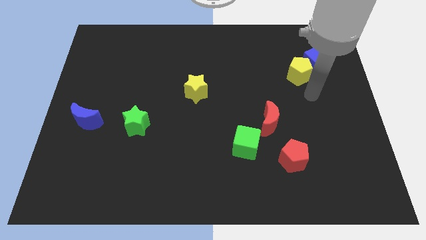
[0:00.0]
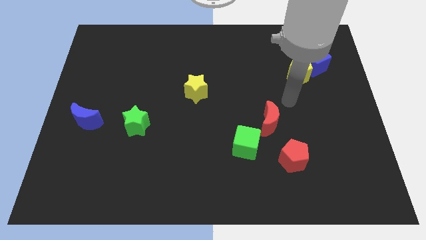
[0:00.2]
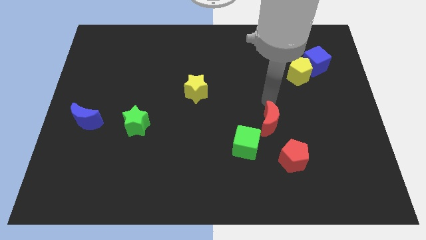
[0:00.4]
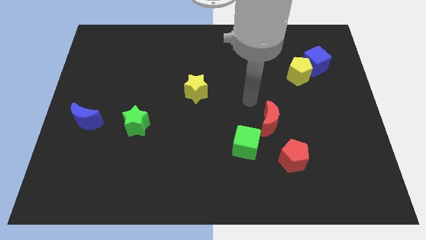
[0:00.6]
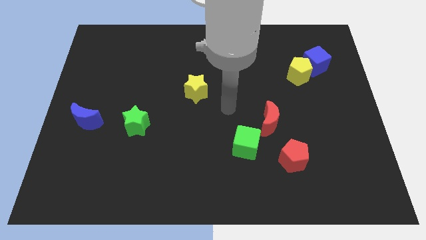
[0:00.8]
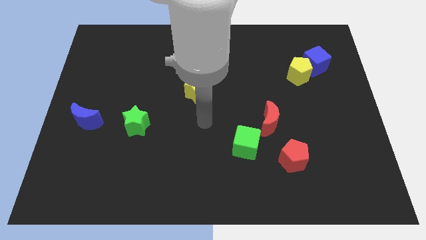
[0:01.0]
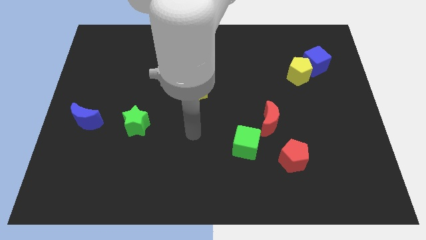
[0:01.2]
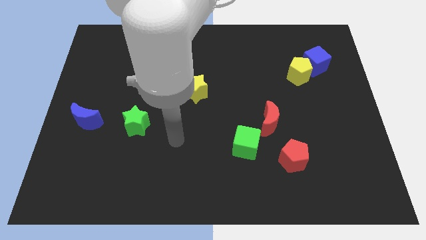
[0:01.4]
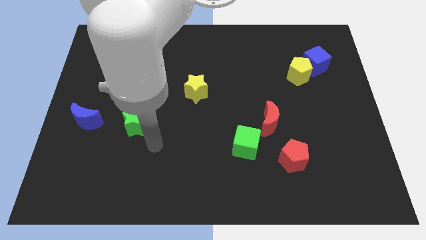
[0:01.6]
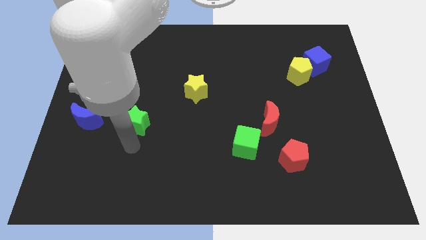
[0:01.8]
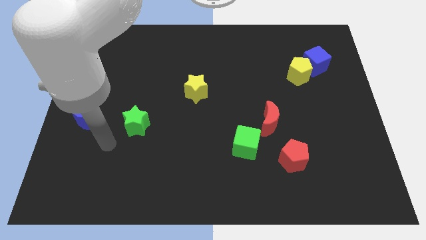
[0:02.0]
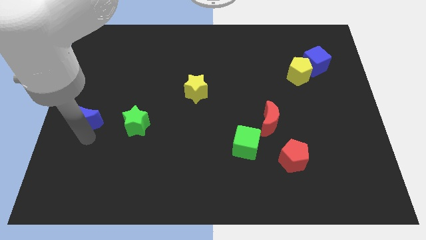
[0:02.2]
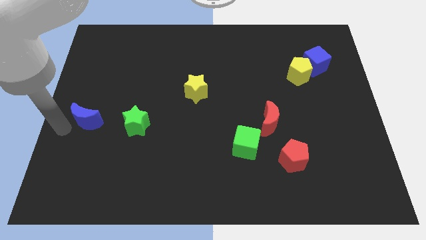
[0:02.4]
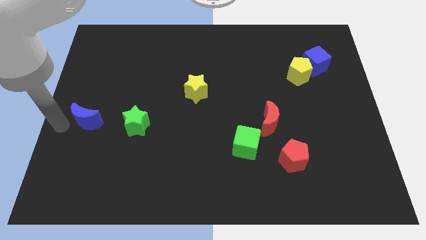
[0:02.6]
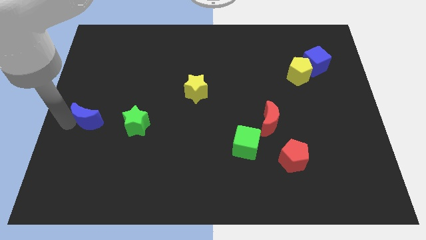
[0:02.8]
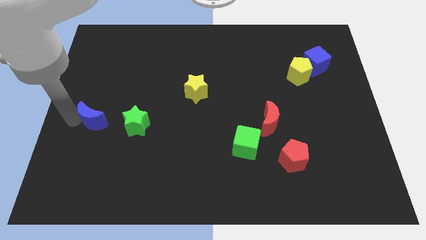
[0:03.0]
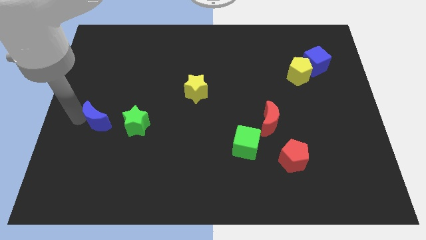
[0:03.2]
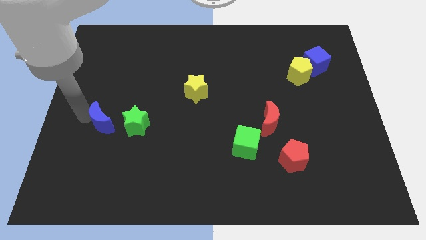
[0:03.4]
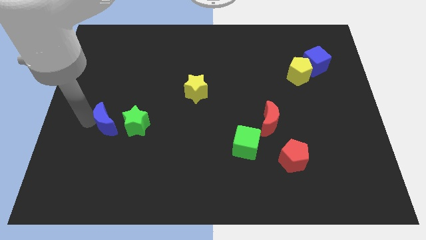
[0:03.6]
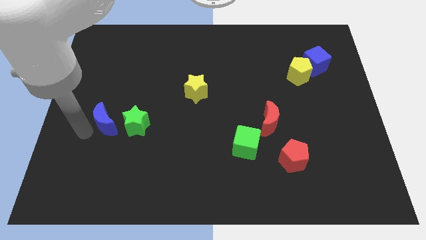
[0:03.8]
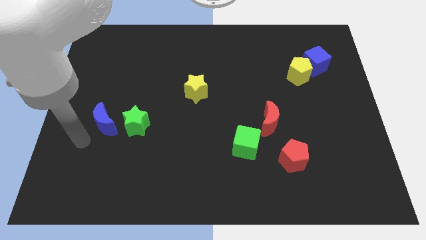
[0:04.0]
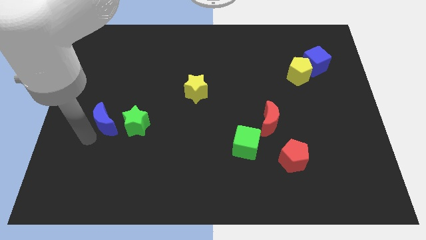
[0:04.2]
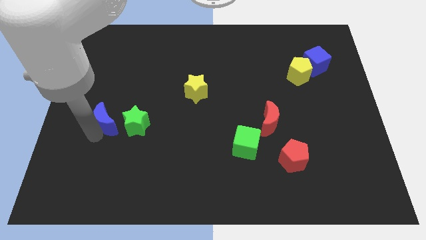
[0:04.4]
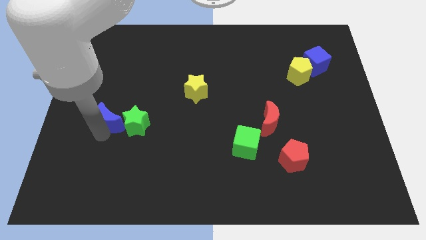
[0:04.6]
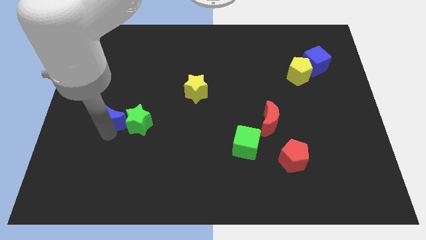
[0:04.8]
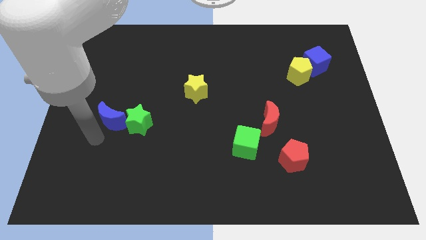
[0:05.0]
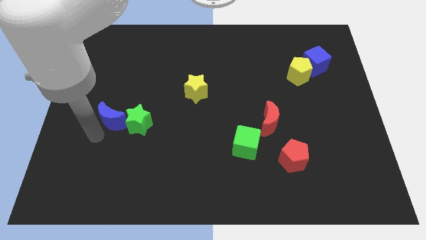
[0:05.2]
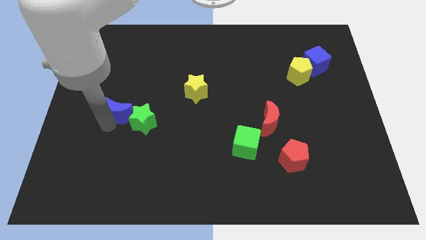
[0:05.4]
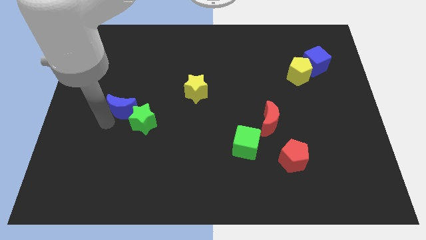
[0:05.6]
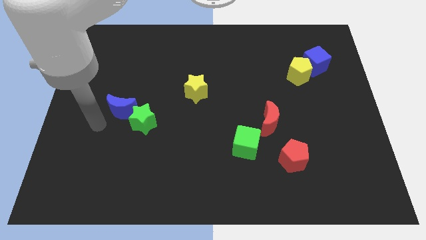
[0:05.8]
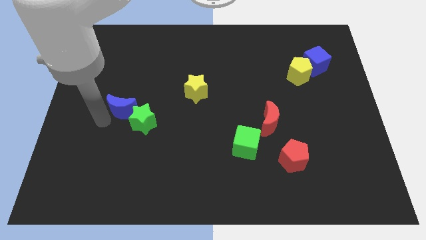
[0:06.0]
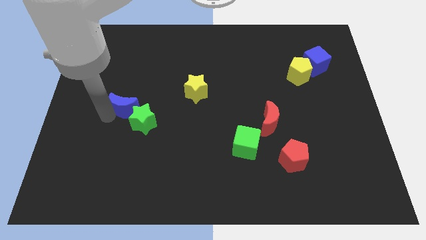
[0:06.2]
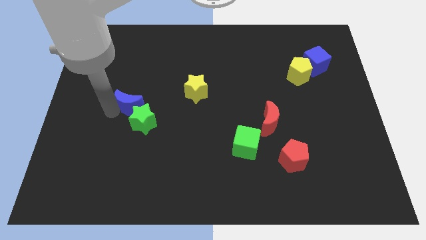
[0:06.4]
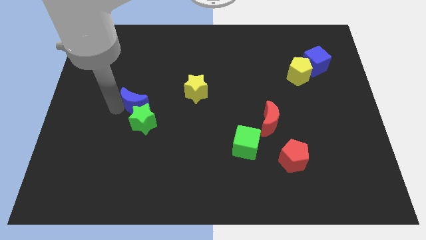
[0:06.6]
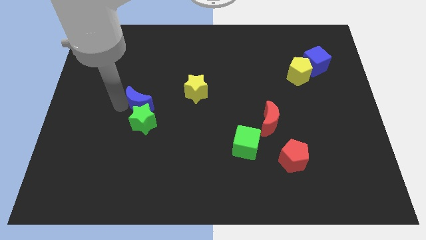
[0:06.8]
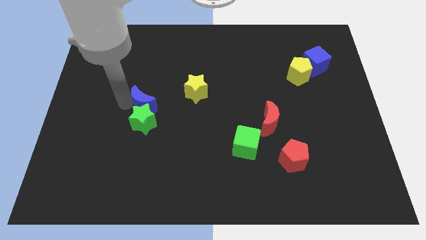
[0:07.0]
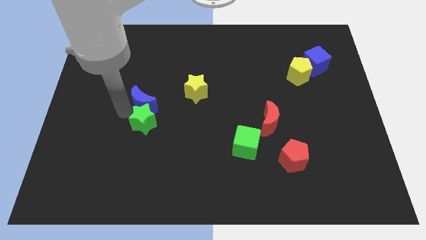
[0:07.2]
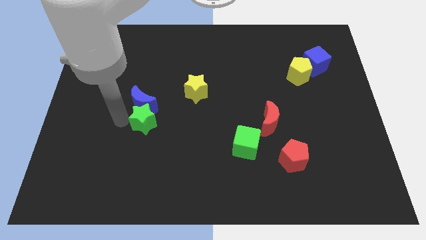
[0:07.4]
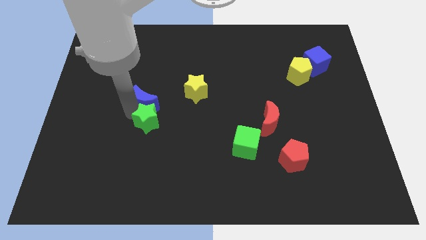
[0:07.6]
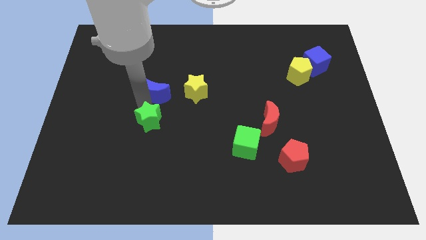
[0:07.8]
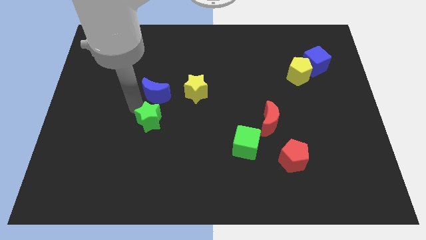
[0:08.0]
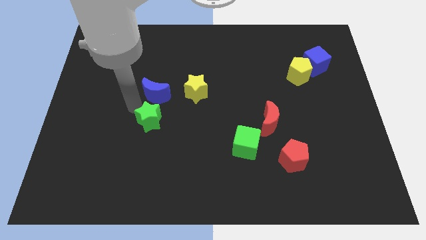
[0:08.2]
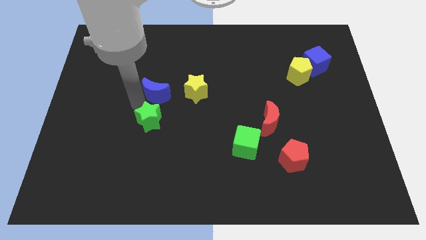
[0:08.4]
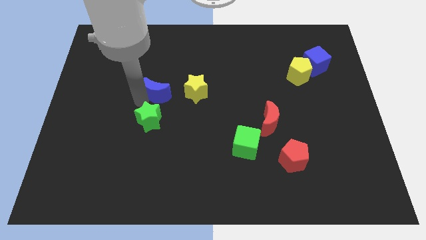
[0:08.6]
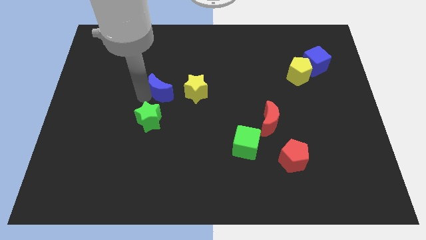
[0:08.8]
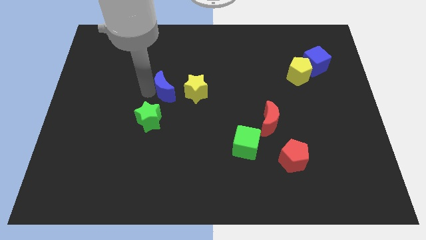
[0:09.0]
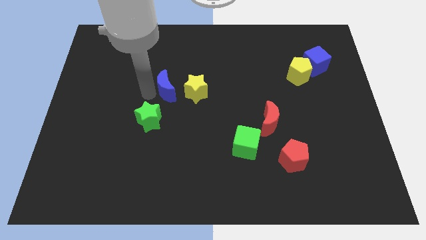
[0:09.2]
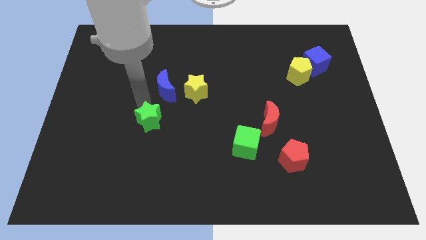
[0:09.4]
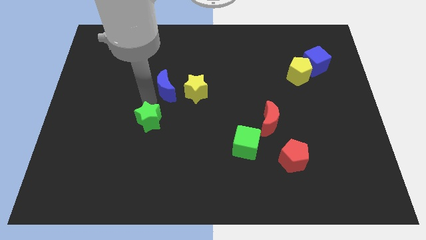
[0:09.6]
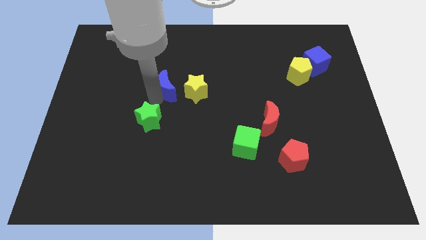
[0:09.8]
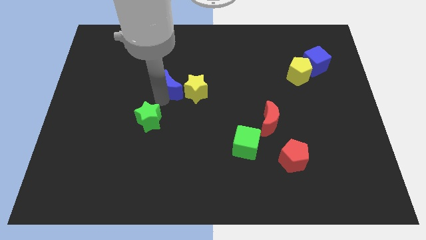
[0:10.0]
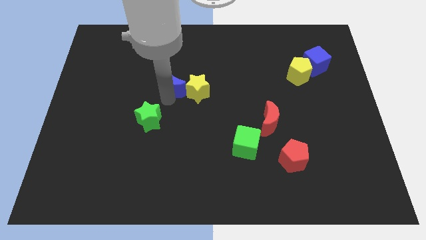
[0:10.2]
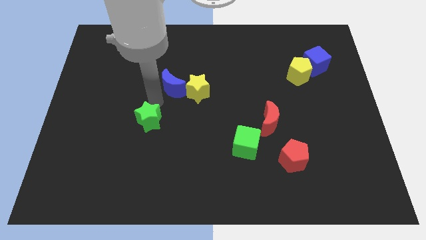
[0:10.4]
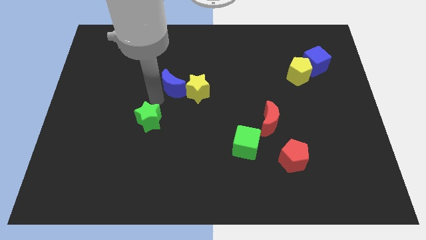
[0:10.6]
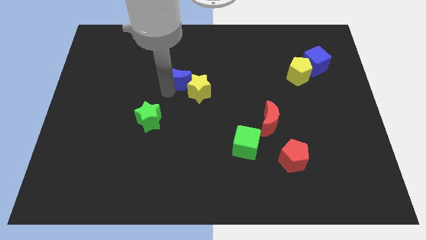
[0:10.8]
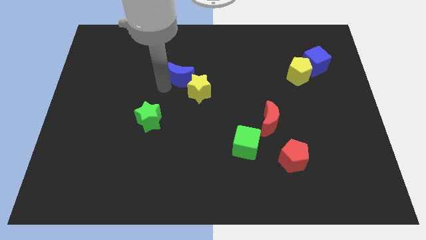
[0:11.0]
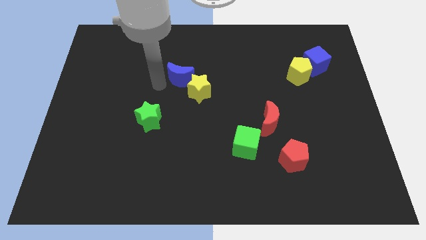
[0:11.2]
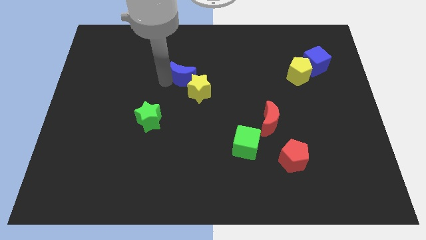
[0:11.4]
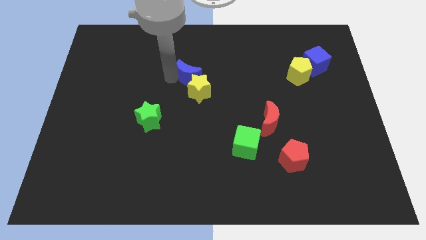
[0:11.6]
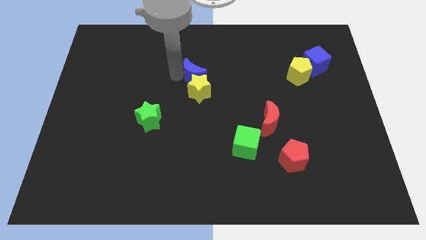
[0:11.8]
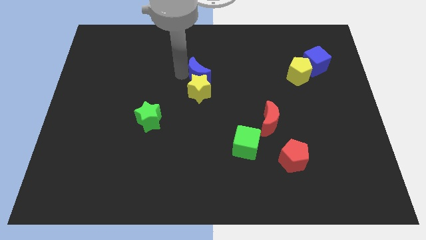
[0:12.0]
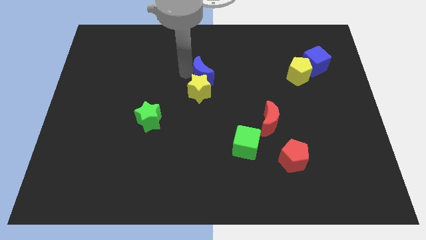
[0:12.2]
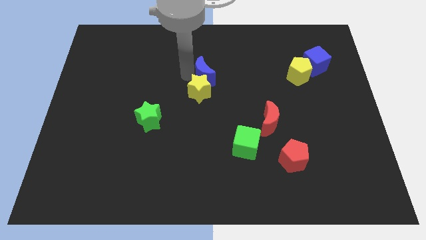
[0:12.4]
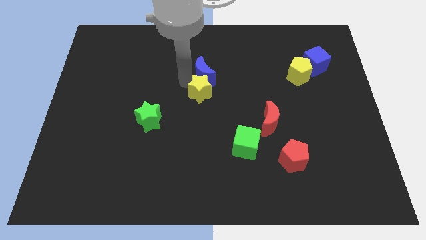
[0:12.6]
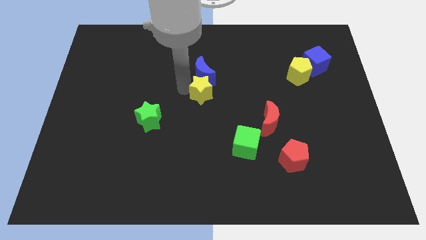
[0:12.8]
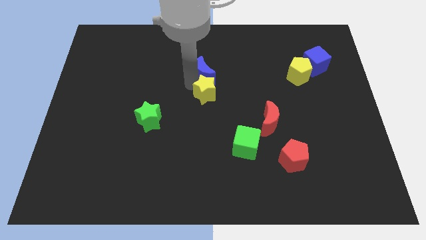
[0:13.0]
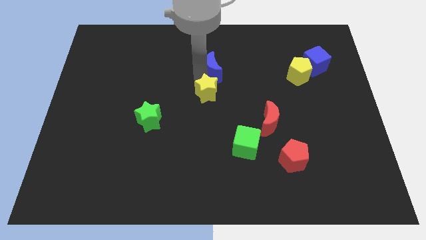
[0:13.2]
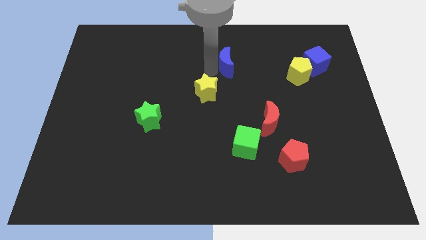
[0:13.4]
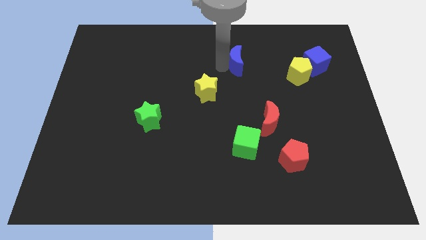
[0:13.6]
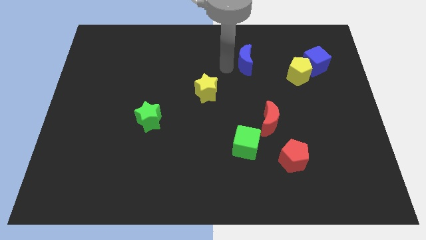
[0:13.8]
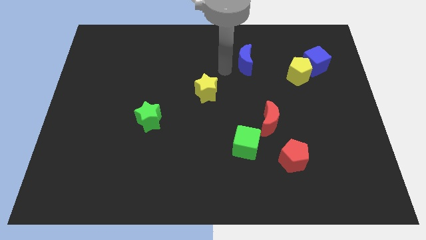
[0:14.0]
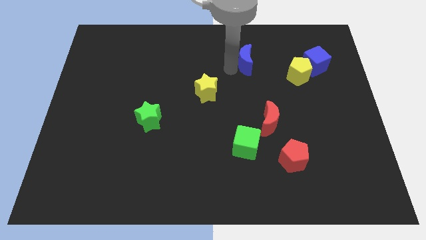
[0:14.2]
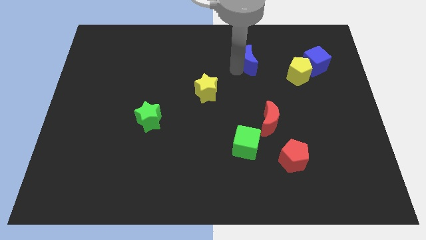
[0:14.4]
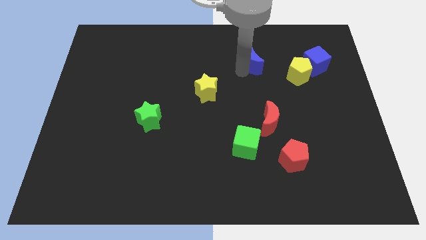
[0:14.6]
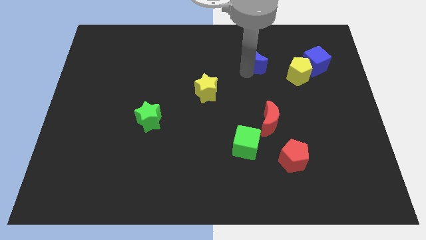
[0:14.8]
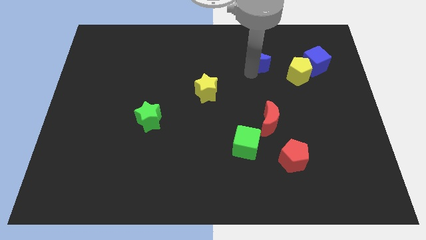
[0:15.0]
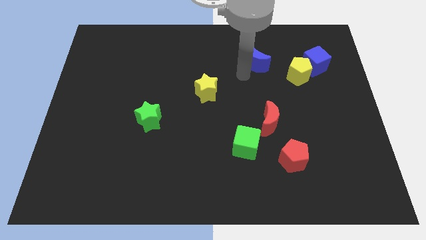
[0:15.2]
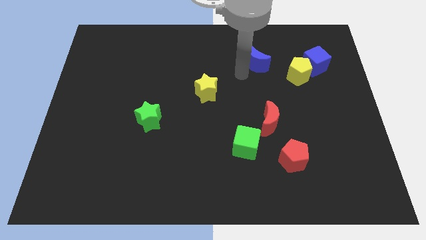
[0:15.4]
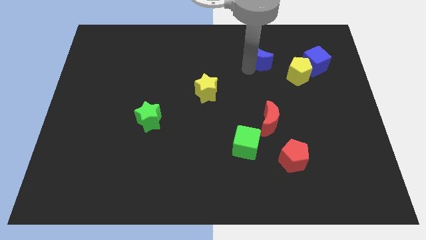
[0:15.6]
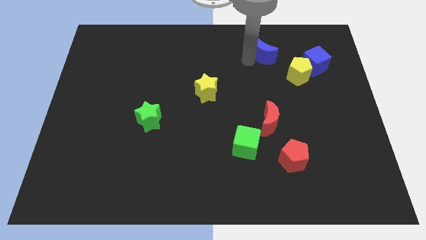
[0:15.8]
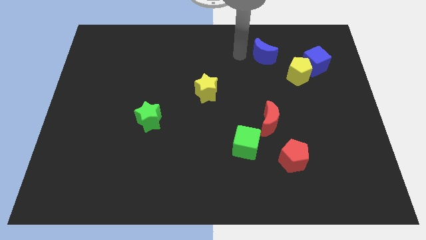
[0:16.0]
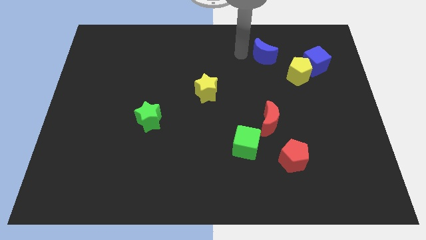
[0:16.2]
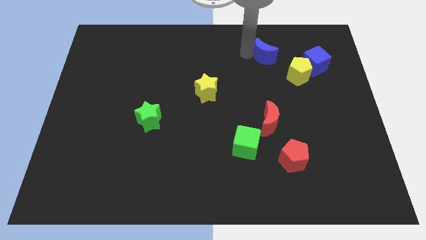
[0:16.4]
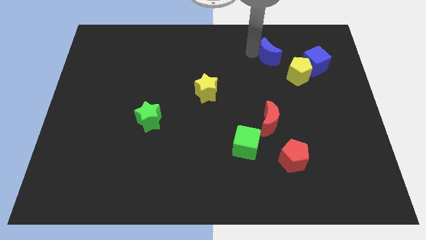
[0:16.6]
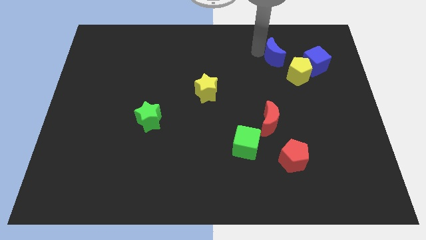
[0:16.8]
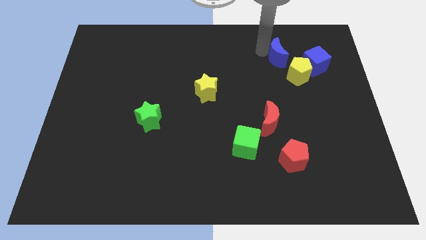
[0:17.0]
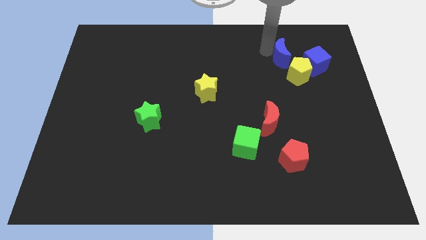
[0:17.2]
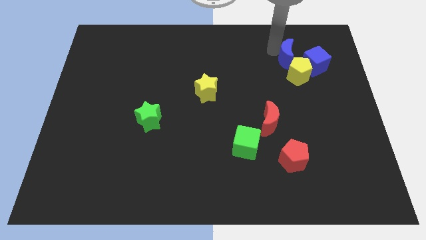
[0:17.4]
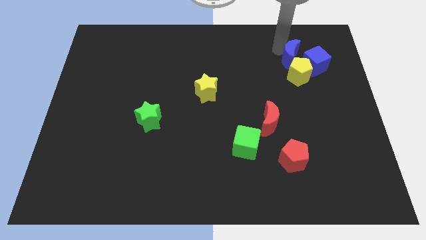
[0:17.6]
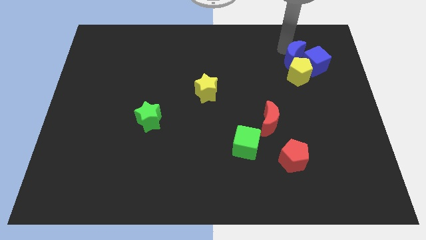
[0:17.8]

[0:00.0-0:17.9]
push the blue moon towards the blue cube
